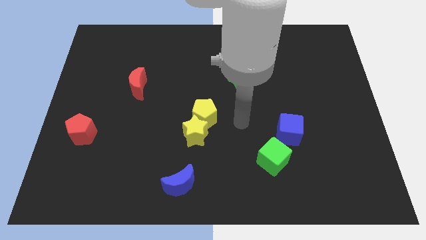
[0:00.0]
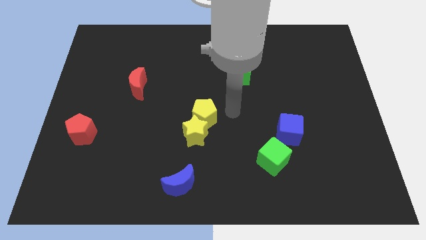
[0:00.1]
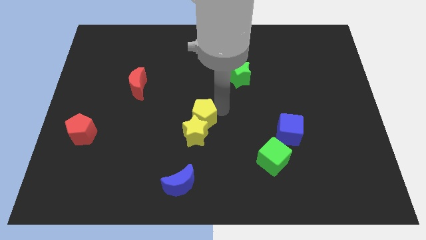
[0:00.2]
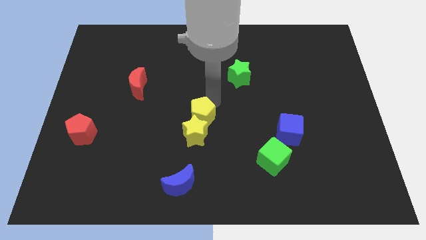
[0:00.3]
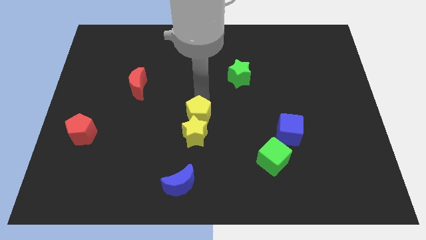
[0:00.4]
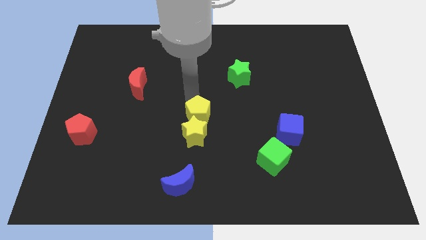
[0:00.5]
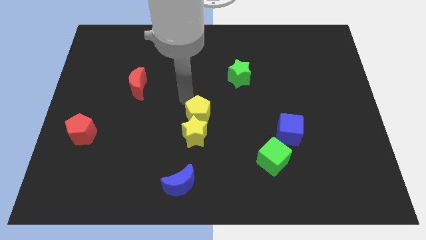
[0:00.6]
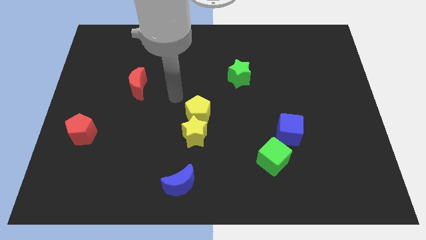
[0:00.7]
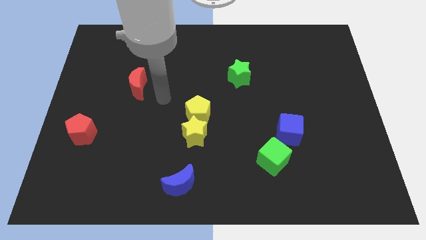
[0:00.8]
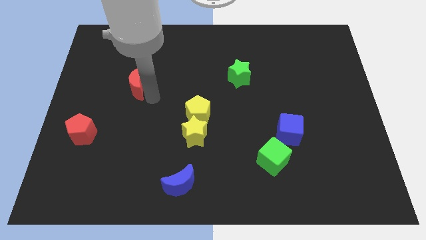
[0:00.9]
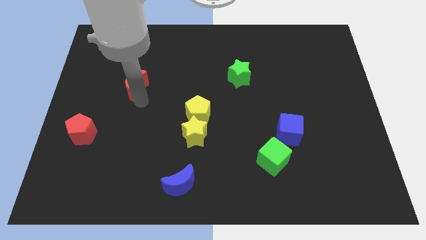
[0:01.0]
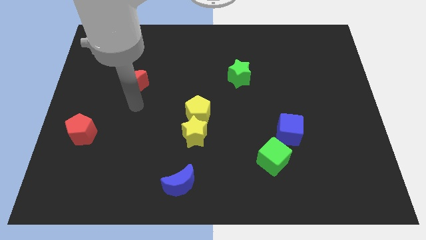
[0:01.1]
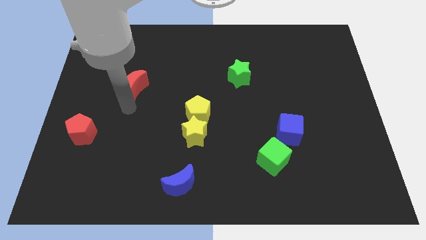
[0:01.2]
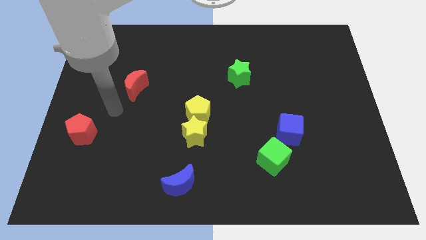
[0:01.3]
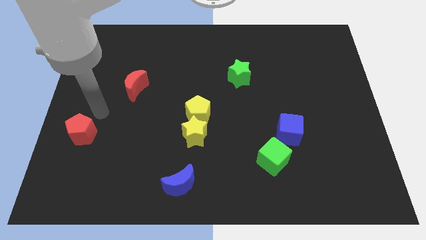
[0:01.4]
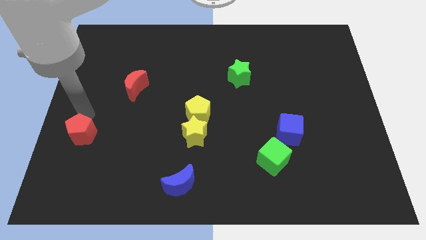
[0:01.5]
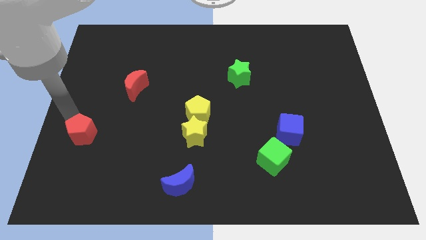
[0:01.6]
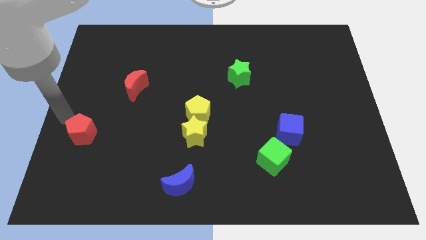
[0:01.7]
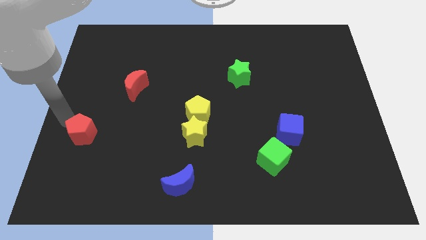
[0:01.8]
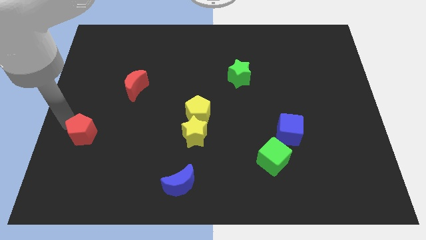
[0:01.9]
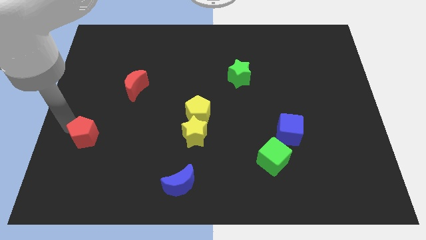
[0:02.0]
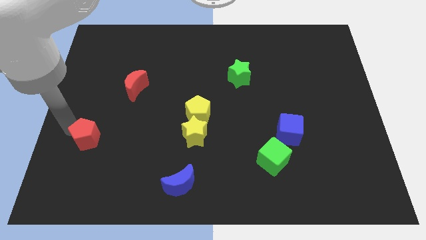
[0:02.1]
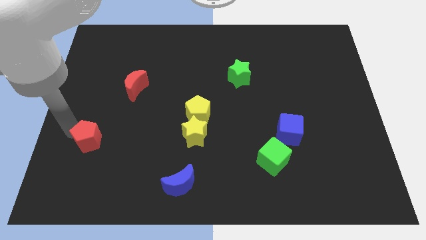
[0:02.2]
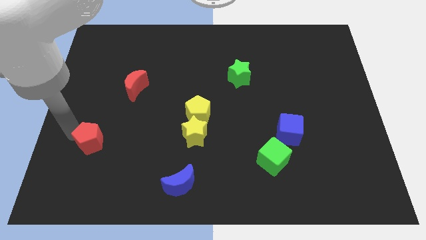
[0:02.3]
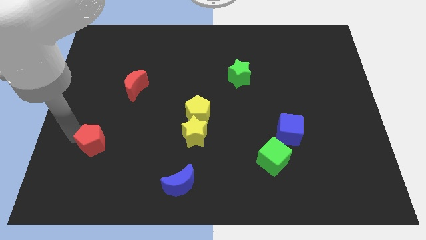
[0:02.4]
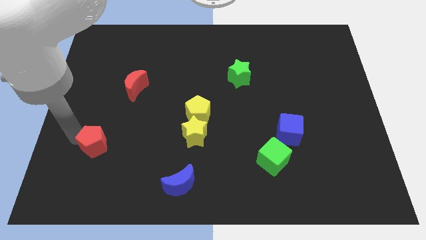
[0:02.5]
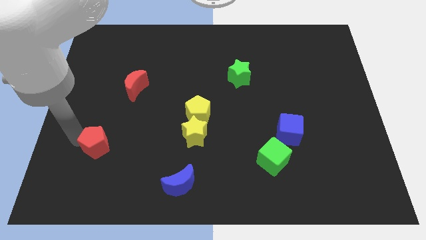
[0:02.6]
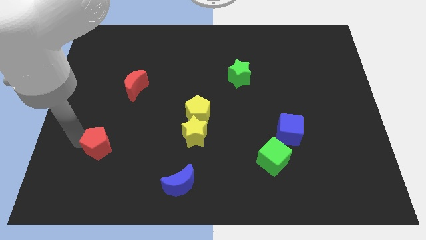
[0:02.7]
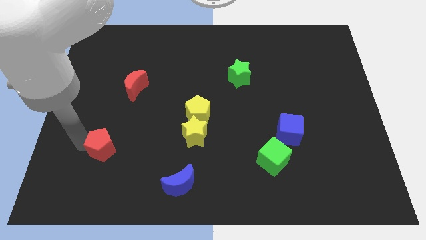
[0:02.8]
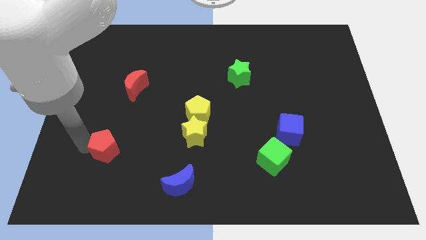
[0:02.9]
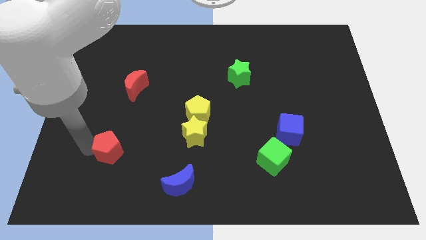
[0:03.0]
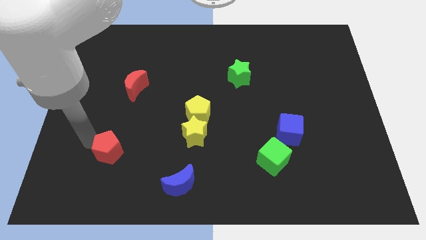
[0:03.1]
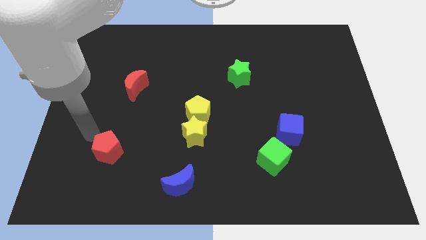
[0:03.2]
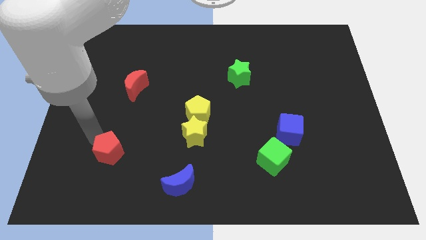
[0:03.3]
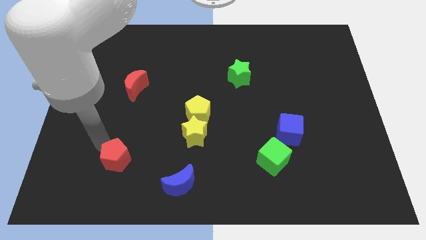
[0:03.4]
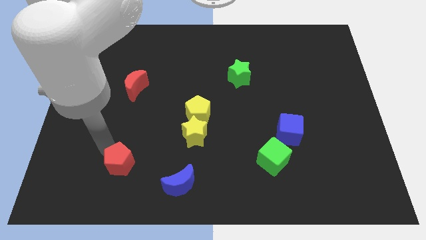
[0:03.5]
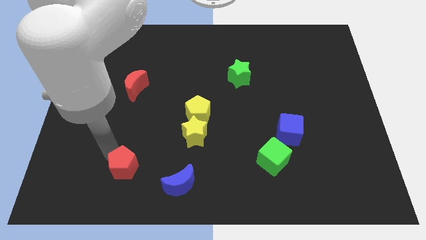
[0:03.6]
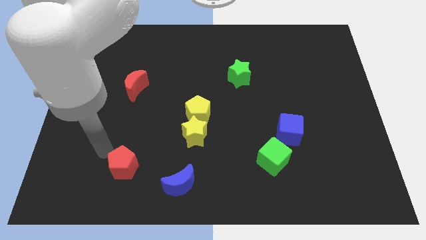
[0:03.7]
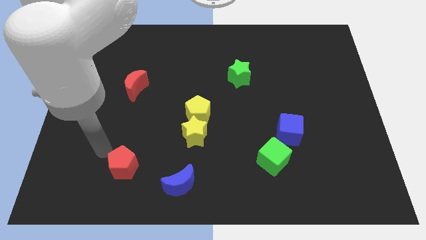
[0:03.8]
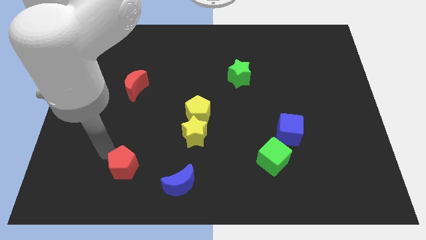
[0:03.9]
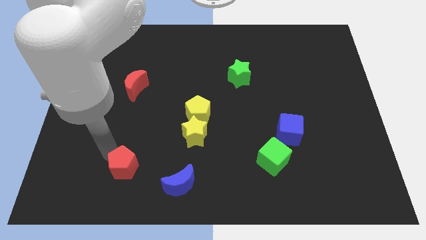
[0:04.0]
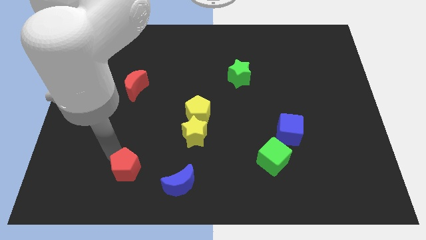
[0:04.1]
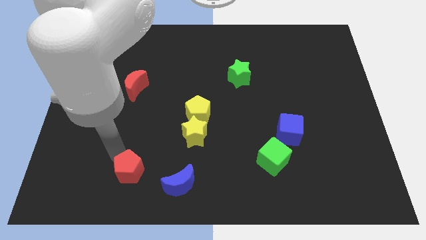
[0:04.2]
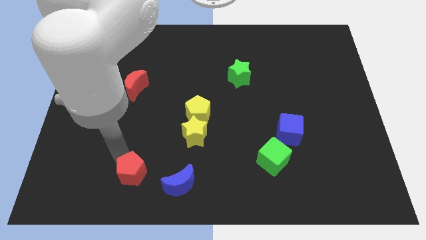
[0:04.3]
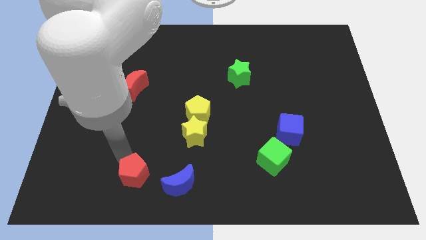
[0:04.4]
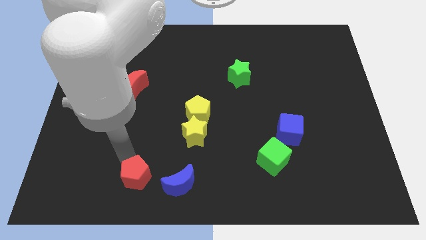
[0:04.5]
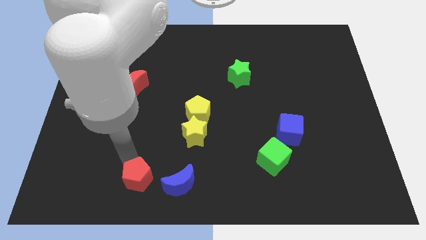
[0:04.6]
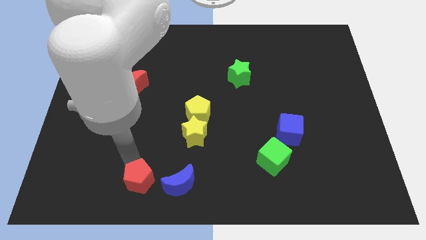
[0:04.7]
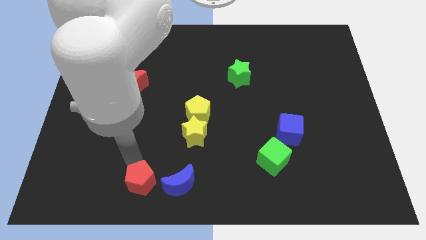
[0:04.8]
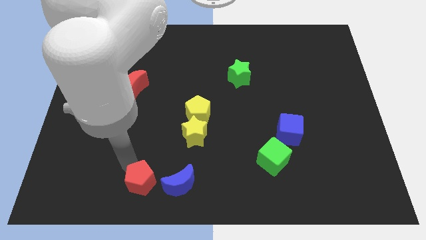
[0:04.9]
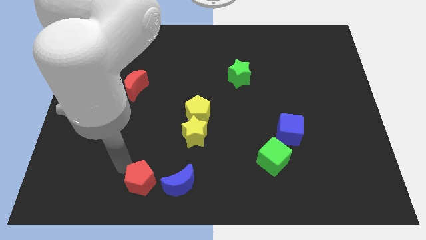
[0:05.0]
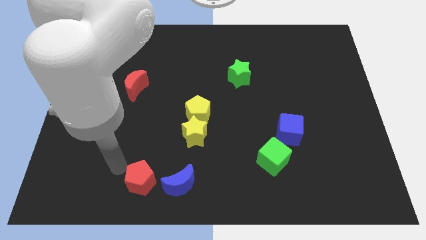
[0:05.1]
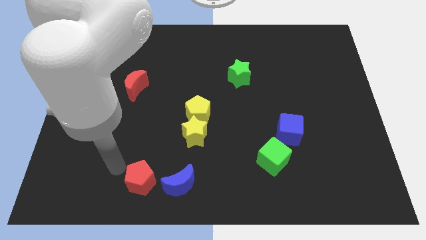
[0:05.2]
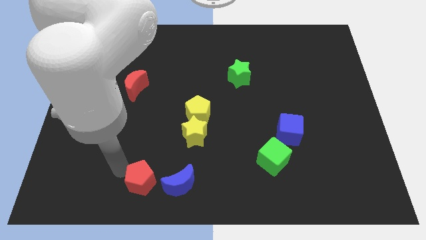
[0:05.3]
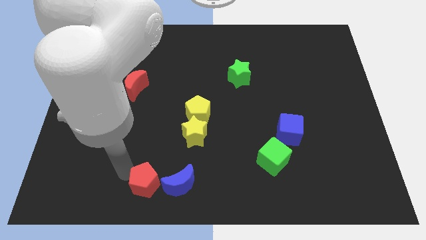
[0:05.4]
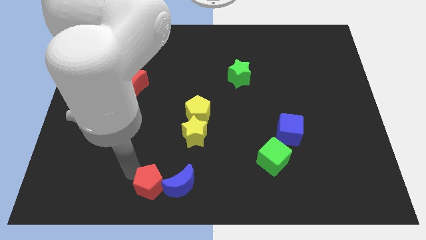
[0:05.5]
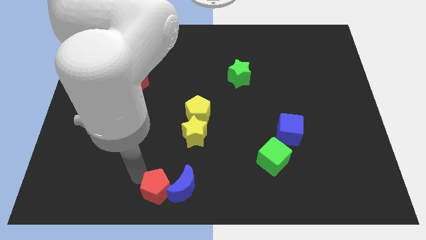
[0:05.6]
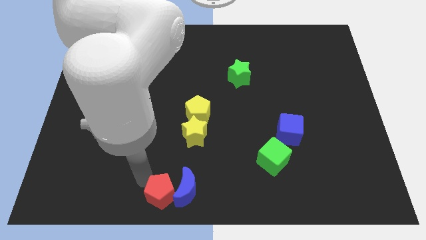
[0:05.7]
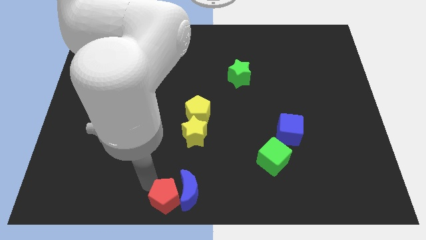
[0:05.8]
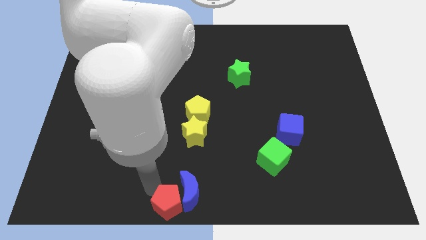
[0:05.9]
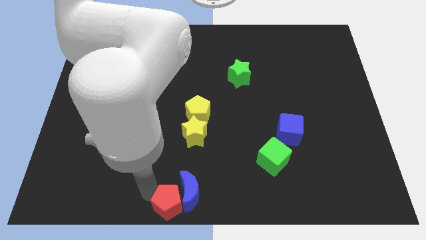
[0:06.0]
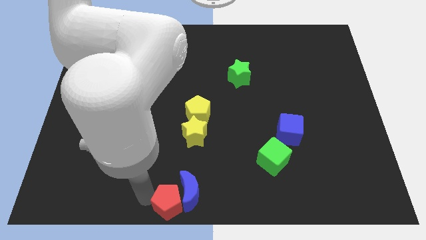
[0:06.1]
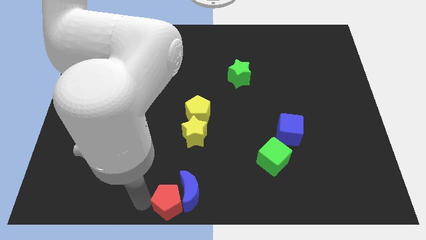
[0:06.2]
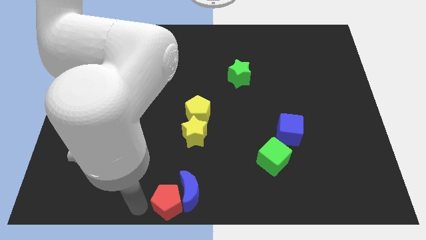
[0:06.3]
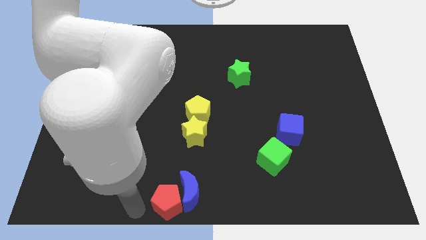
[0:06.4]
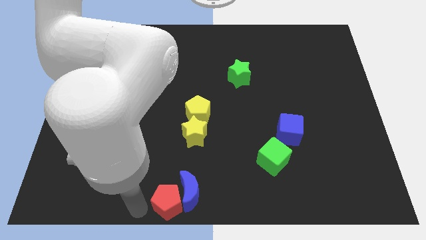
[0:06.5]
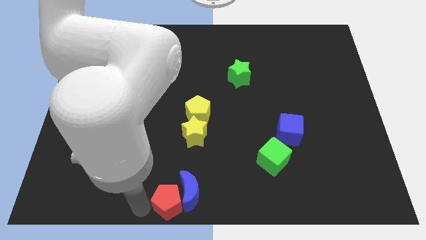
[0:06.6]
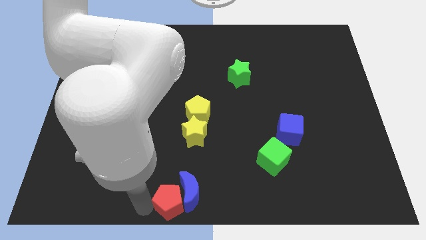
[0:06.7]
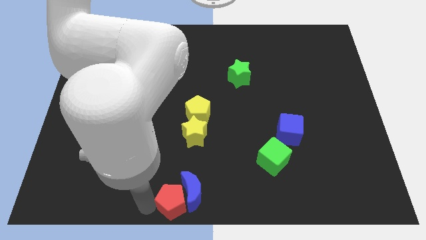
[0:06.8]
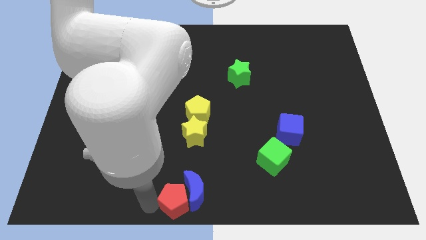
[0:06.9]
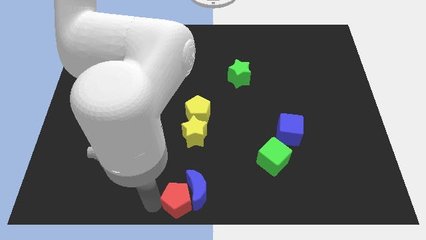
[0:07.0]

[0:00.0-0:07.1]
push the red pentagon below the yellow star
